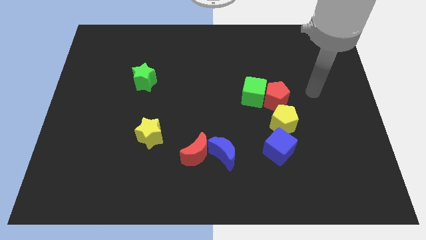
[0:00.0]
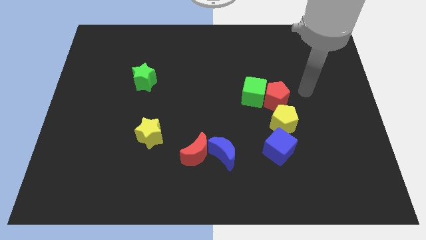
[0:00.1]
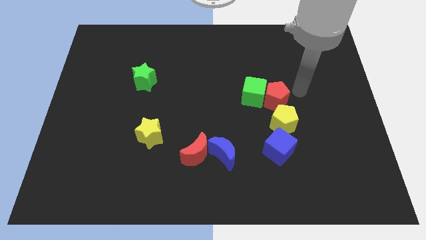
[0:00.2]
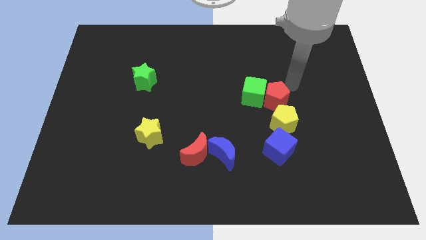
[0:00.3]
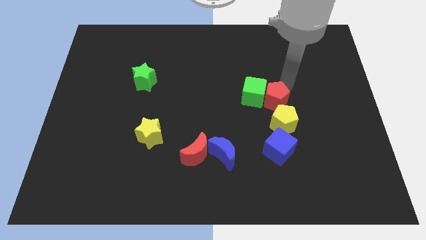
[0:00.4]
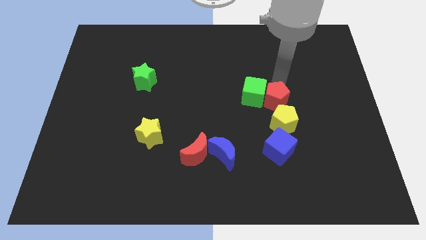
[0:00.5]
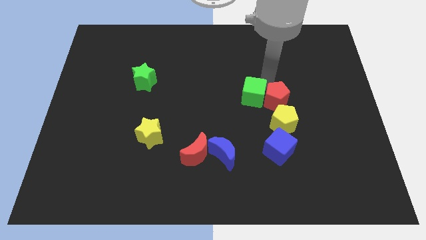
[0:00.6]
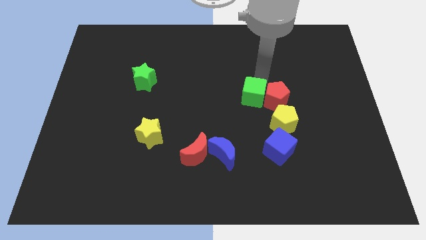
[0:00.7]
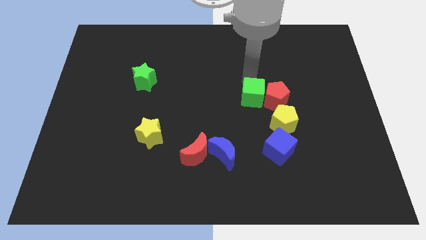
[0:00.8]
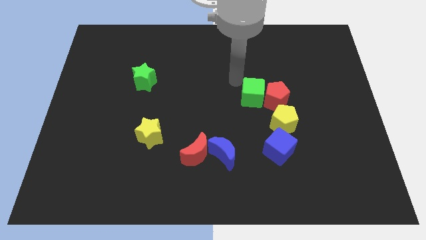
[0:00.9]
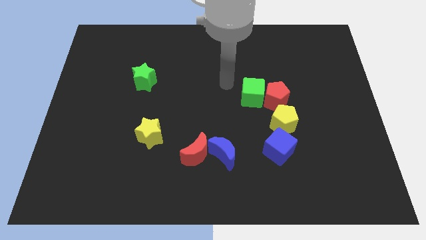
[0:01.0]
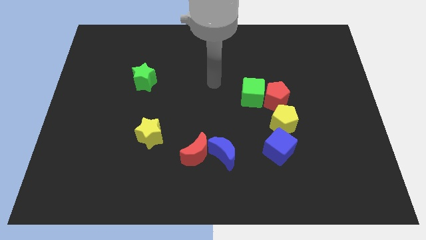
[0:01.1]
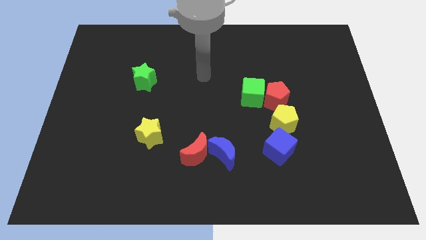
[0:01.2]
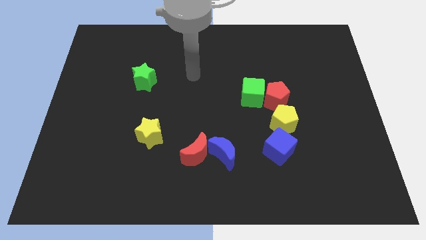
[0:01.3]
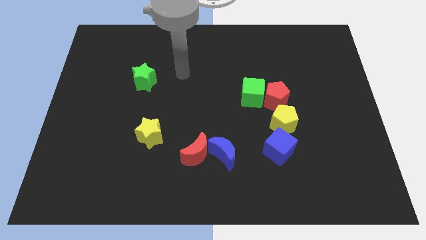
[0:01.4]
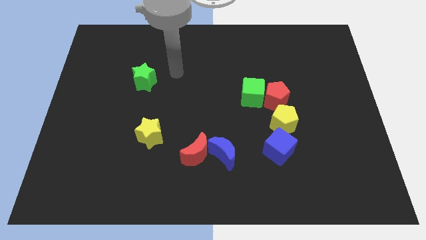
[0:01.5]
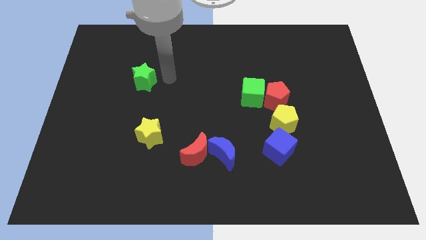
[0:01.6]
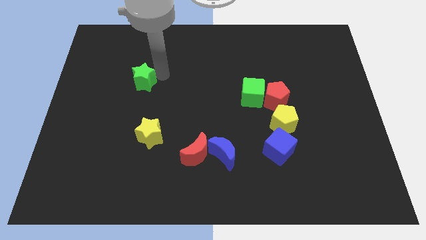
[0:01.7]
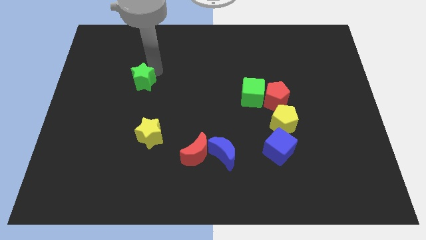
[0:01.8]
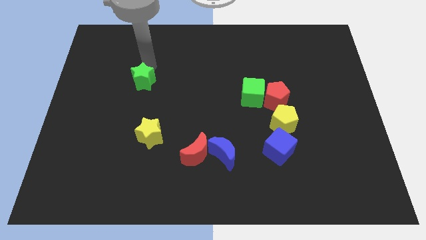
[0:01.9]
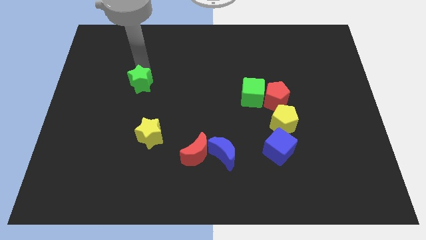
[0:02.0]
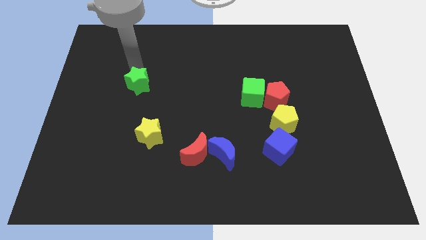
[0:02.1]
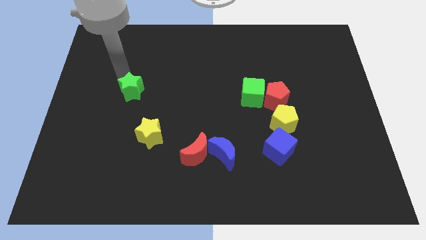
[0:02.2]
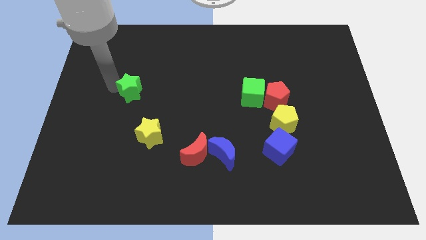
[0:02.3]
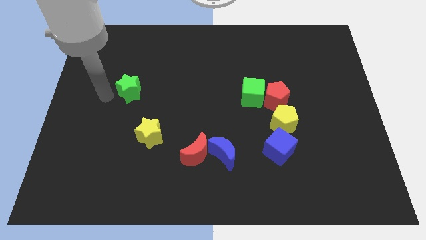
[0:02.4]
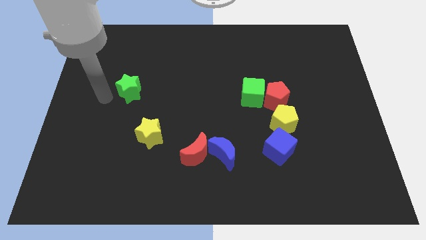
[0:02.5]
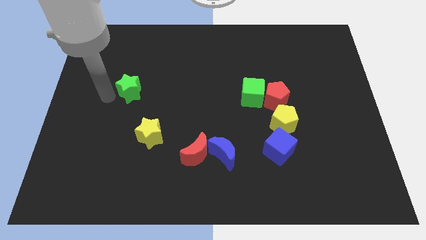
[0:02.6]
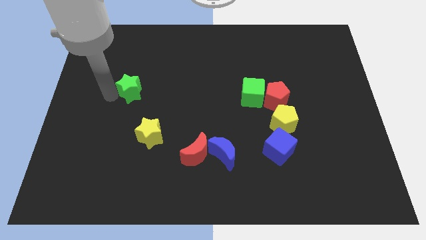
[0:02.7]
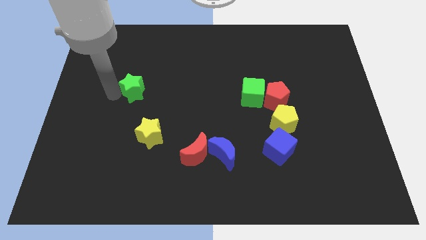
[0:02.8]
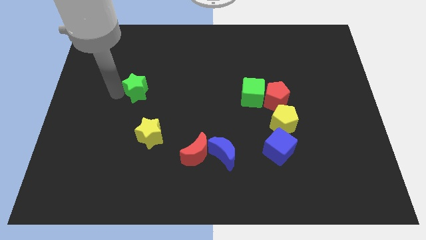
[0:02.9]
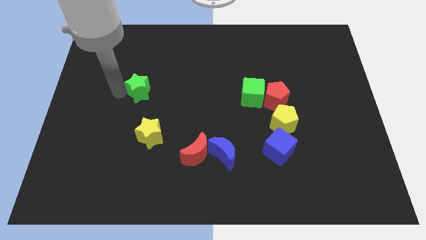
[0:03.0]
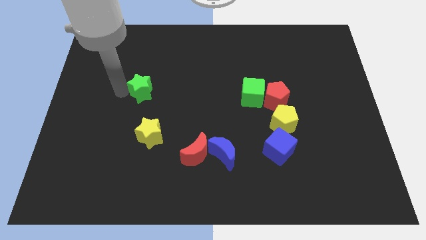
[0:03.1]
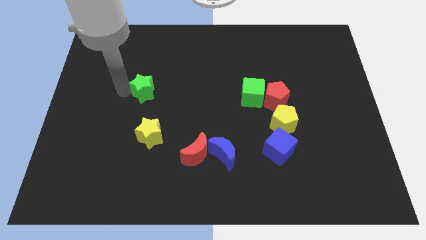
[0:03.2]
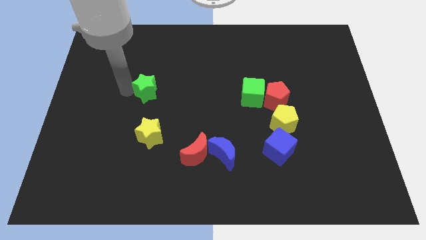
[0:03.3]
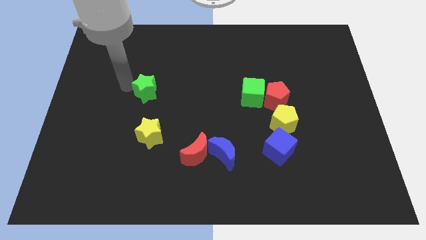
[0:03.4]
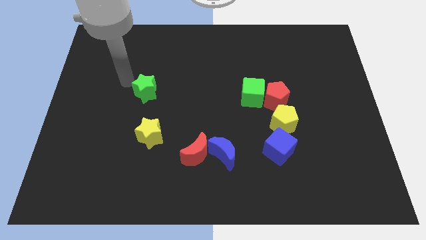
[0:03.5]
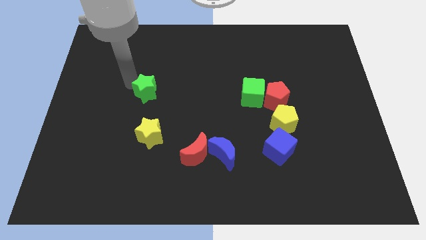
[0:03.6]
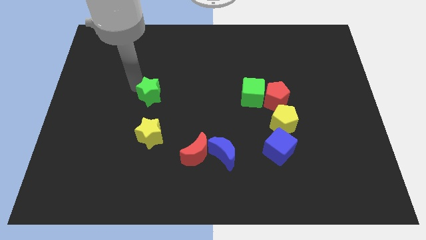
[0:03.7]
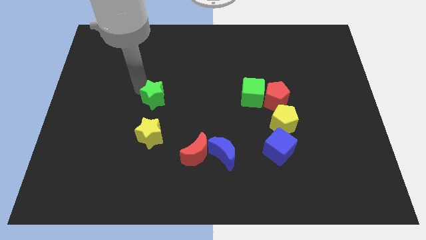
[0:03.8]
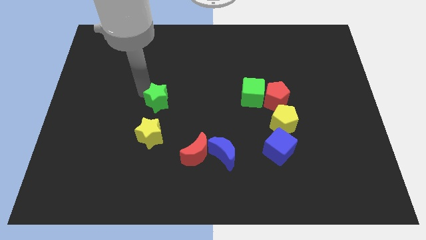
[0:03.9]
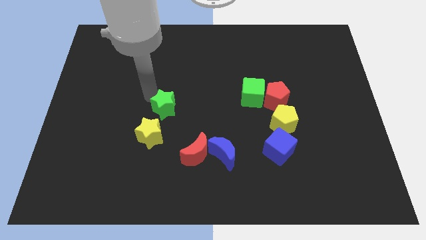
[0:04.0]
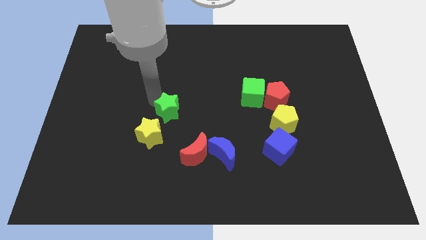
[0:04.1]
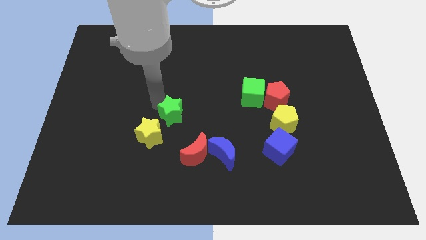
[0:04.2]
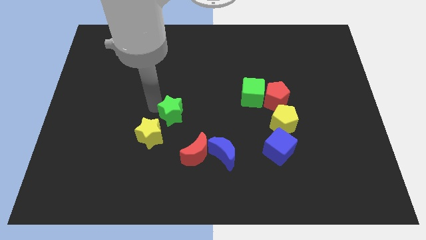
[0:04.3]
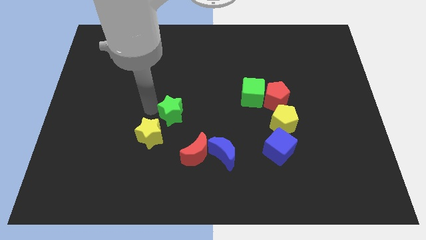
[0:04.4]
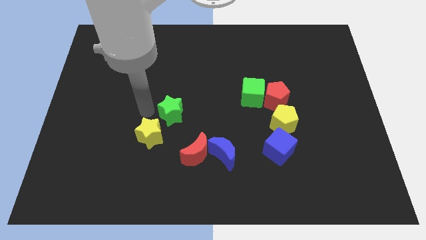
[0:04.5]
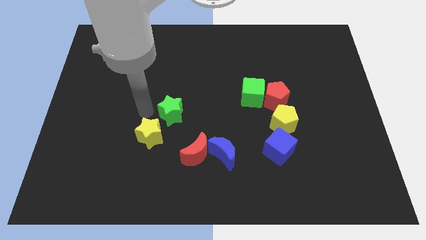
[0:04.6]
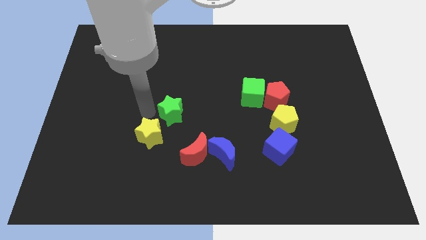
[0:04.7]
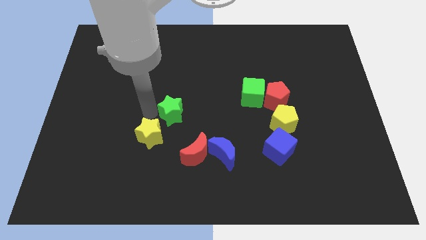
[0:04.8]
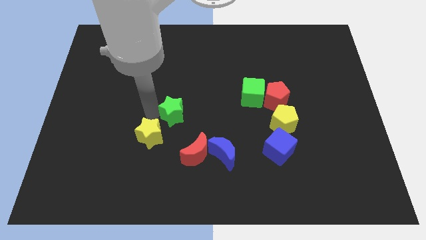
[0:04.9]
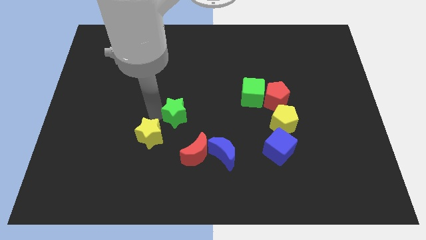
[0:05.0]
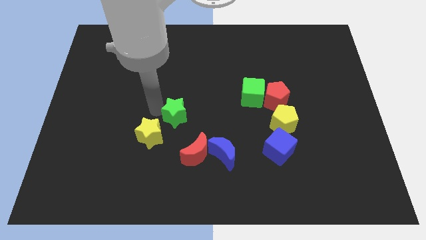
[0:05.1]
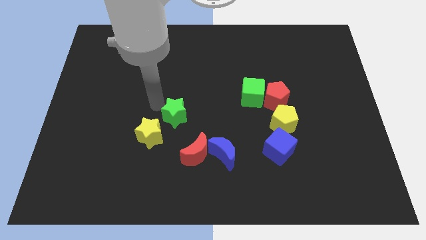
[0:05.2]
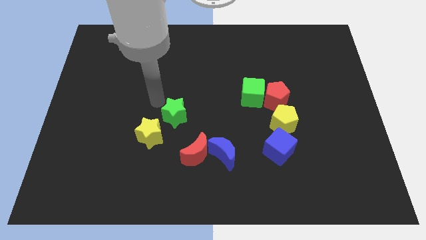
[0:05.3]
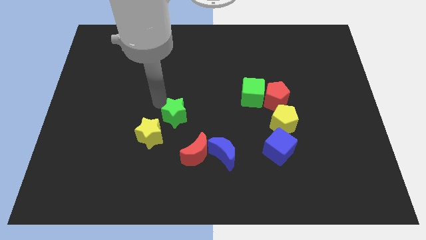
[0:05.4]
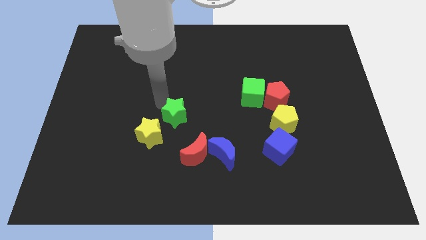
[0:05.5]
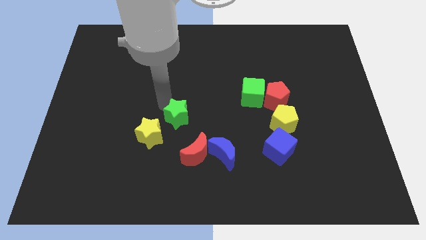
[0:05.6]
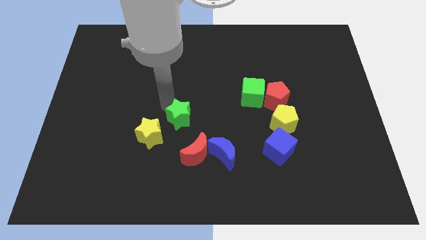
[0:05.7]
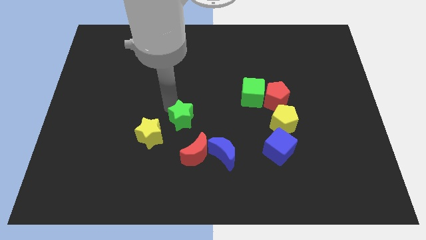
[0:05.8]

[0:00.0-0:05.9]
put the green star to the top left of the blue moon

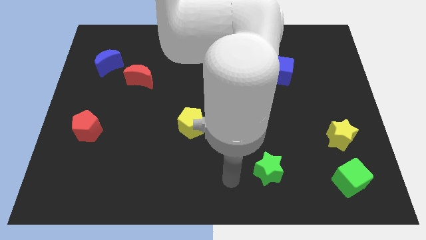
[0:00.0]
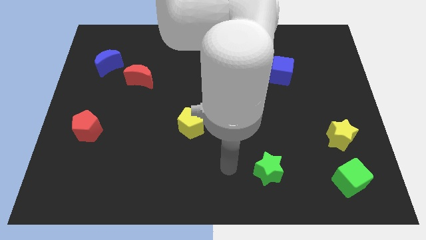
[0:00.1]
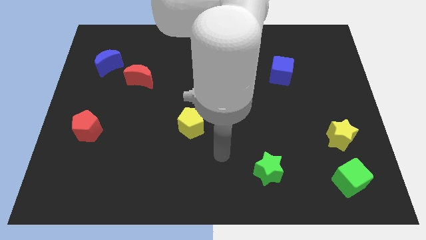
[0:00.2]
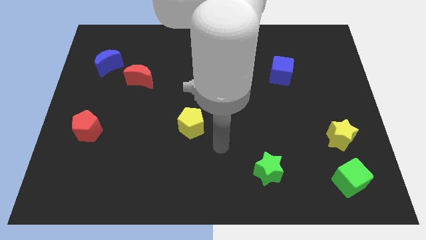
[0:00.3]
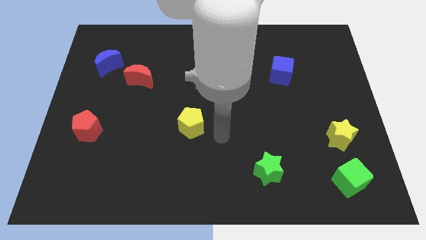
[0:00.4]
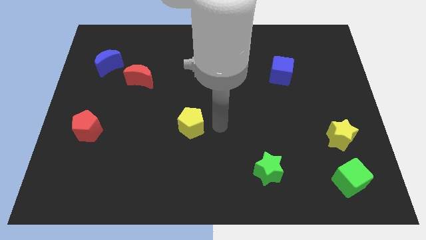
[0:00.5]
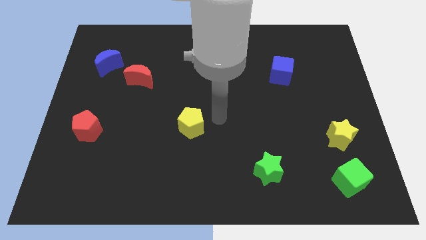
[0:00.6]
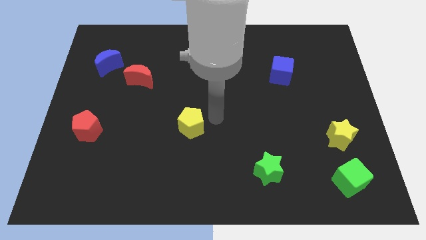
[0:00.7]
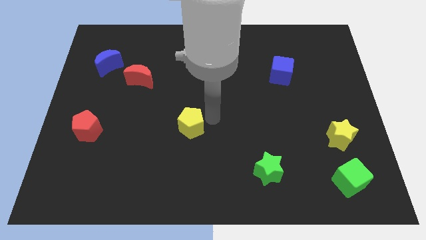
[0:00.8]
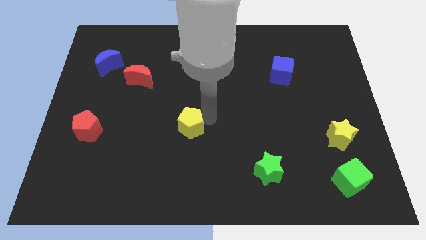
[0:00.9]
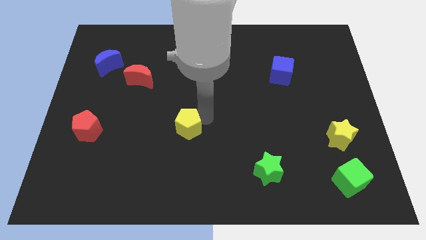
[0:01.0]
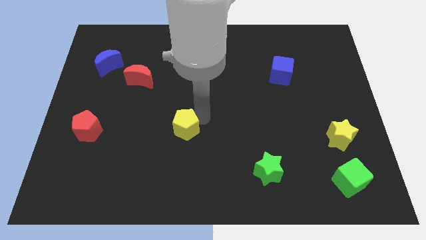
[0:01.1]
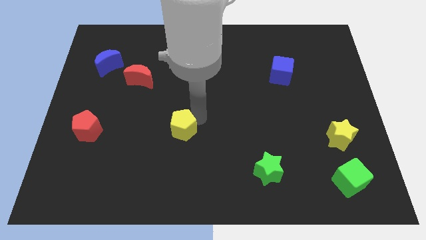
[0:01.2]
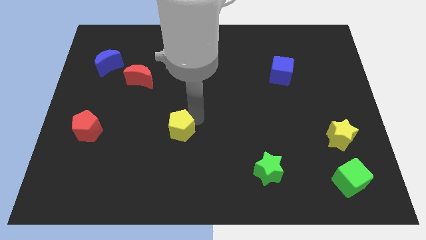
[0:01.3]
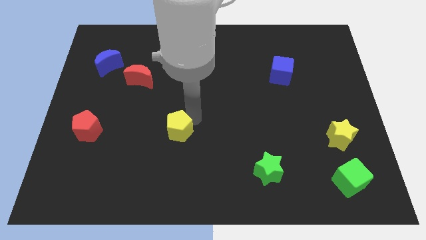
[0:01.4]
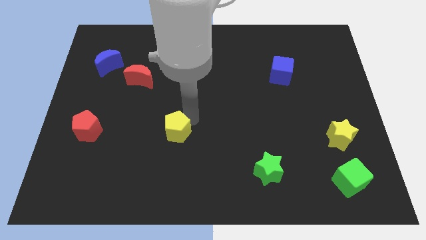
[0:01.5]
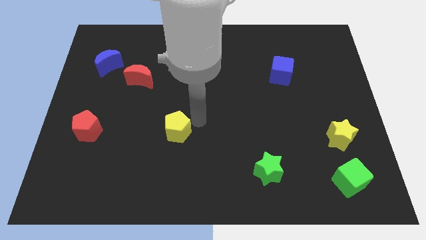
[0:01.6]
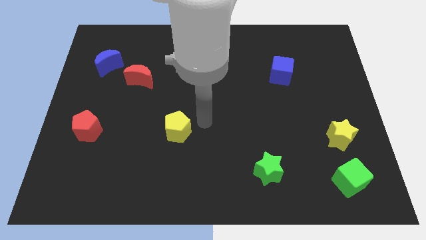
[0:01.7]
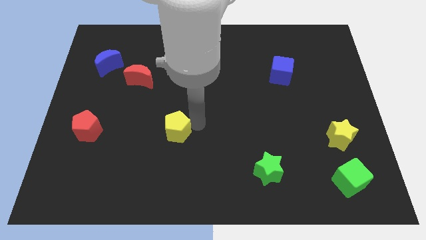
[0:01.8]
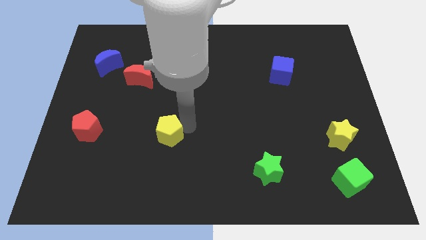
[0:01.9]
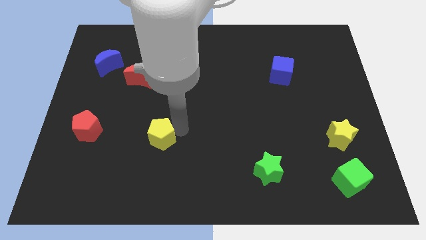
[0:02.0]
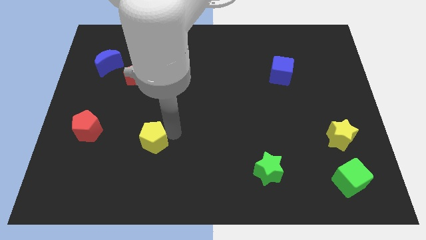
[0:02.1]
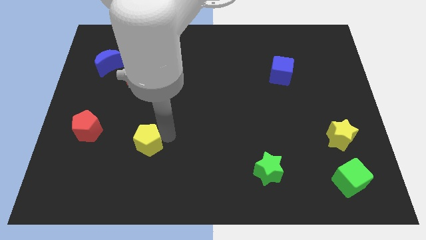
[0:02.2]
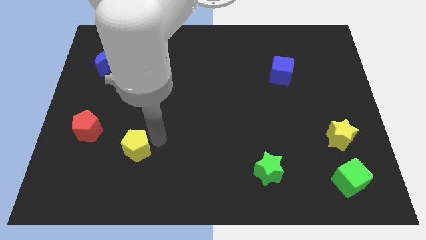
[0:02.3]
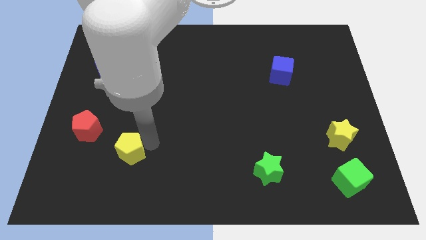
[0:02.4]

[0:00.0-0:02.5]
push the yellow pentagon diagonally down and to the right of the red pentagon
